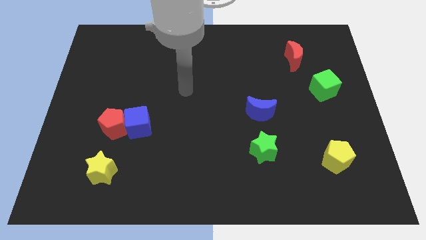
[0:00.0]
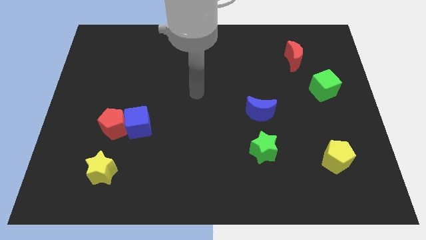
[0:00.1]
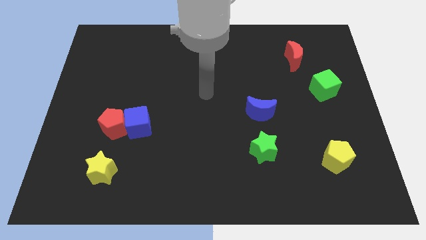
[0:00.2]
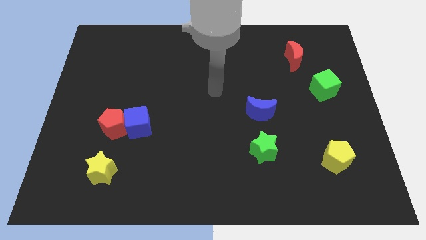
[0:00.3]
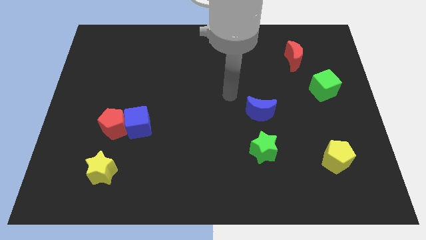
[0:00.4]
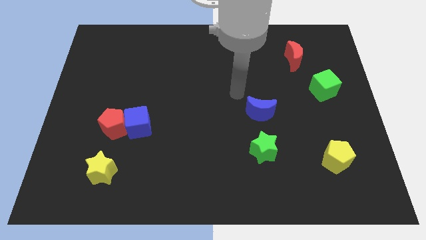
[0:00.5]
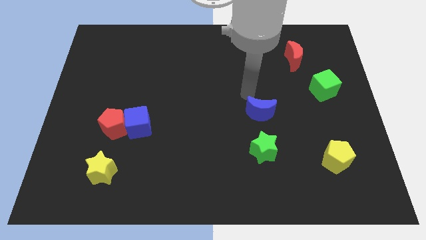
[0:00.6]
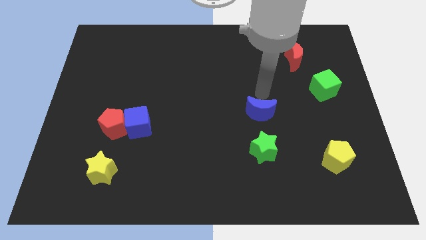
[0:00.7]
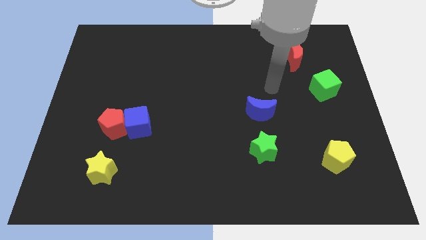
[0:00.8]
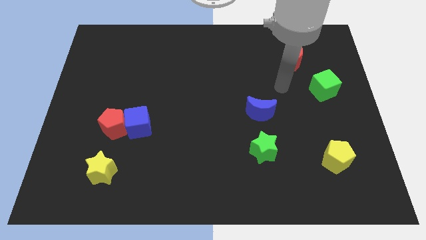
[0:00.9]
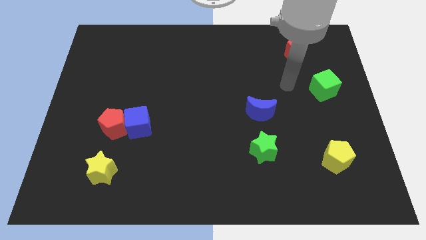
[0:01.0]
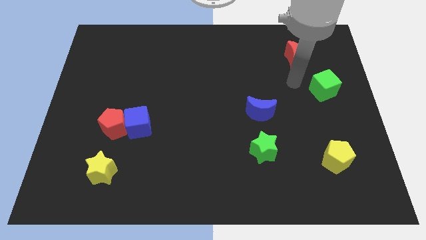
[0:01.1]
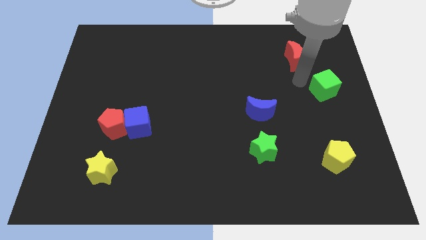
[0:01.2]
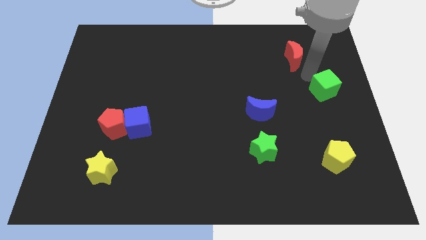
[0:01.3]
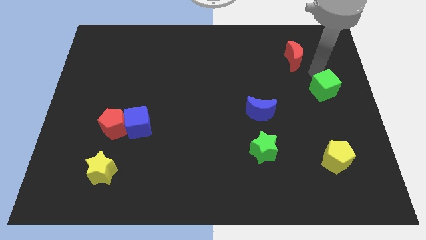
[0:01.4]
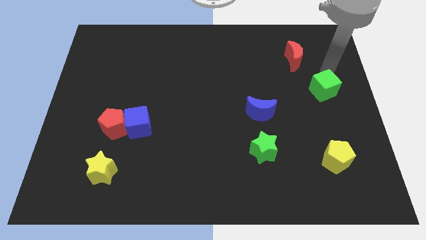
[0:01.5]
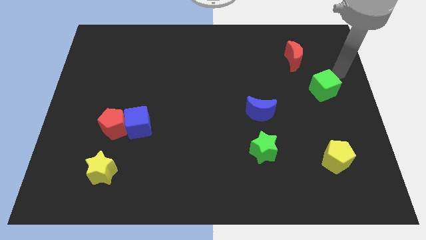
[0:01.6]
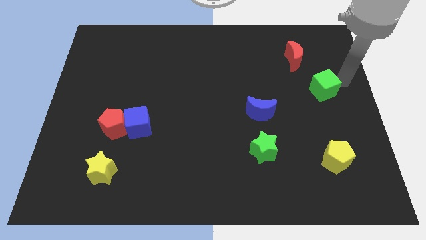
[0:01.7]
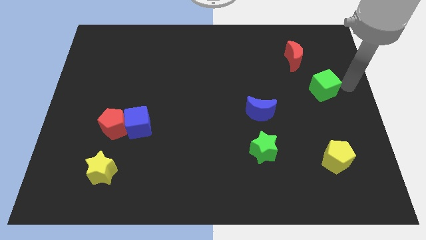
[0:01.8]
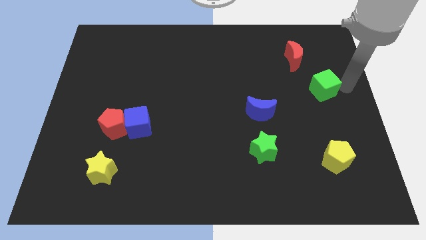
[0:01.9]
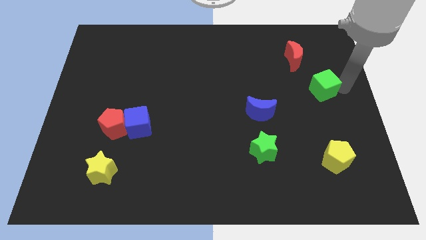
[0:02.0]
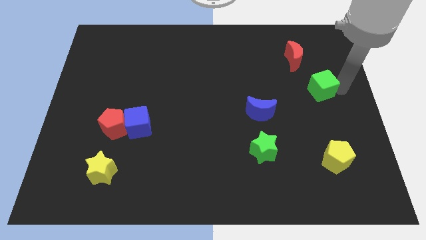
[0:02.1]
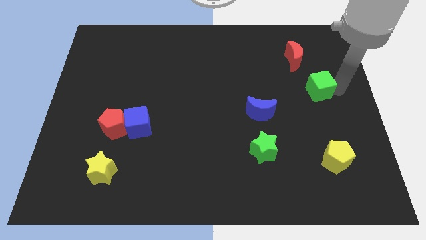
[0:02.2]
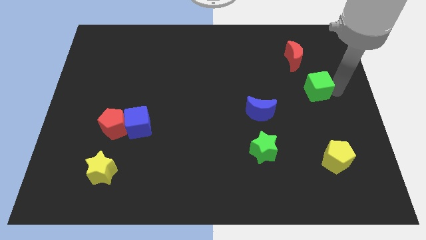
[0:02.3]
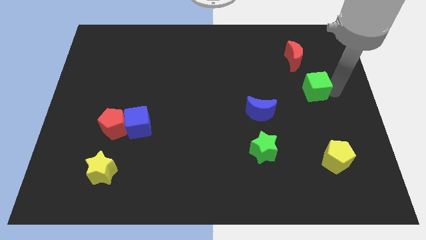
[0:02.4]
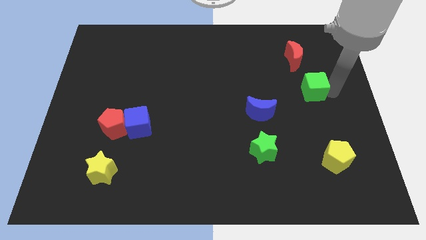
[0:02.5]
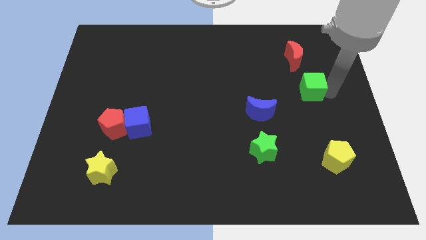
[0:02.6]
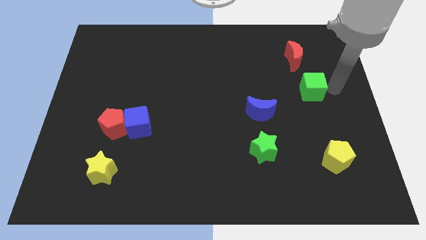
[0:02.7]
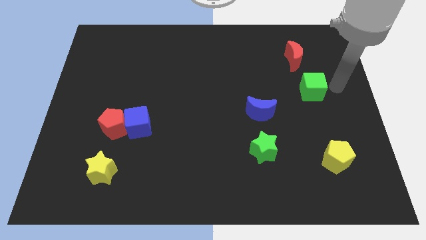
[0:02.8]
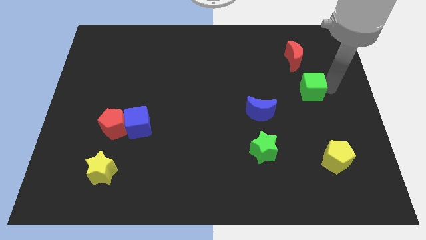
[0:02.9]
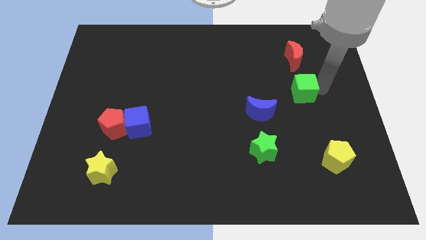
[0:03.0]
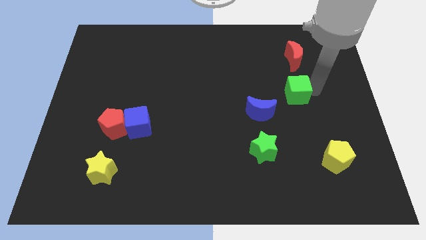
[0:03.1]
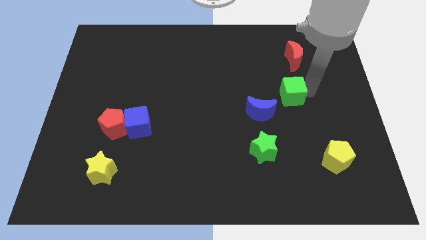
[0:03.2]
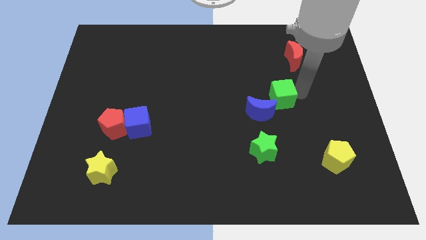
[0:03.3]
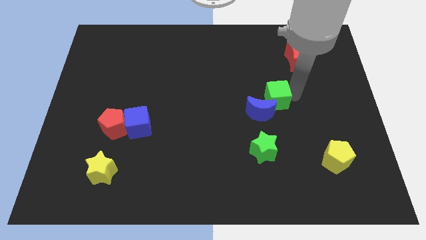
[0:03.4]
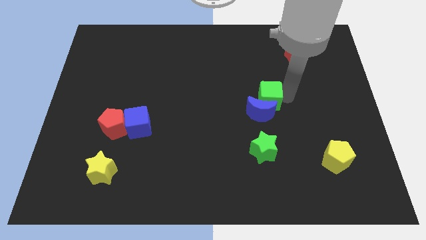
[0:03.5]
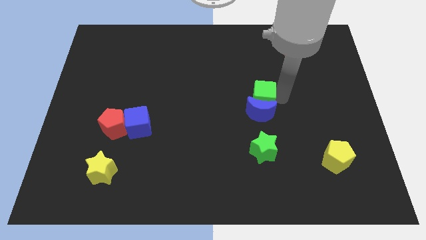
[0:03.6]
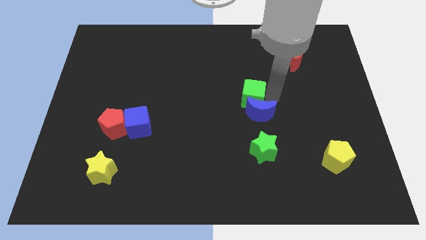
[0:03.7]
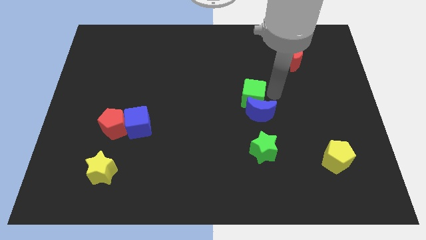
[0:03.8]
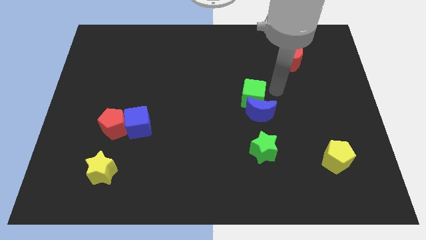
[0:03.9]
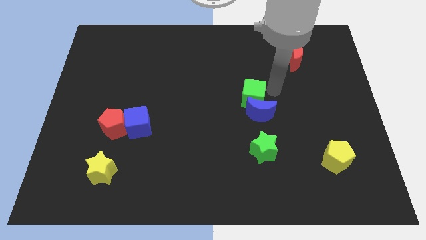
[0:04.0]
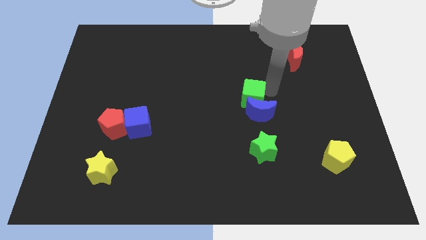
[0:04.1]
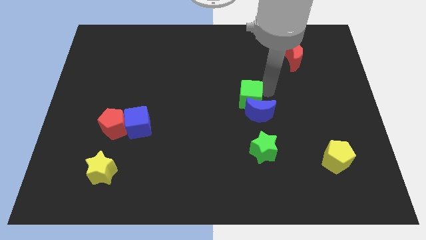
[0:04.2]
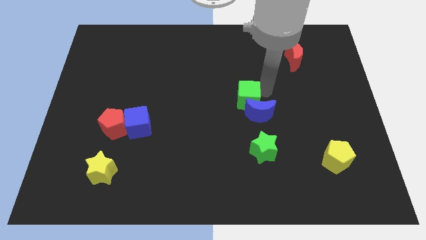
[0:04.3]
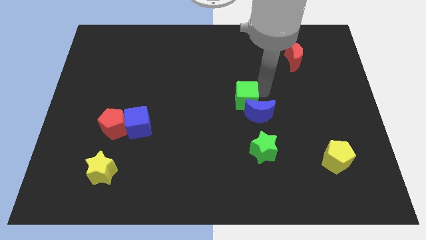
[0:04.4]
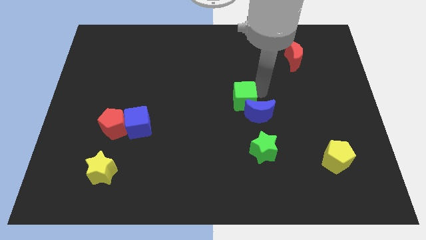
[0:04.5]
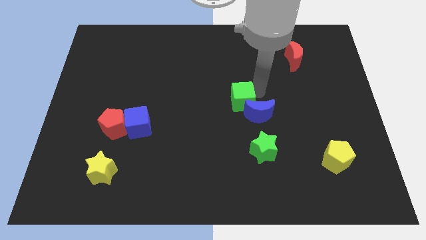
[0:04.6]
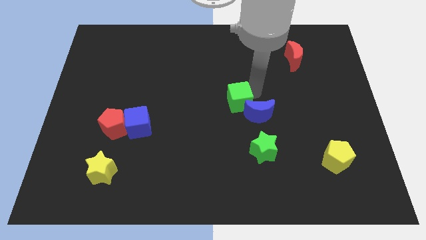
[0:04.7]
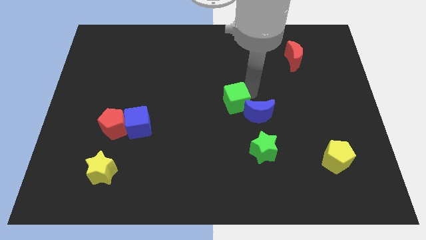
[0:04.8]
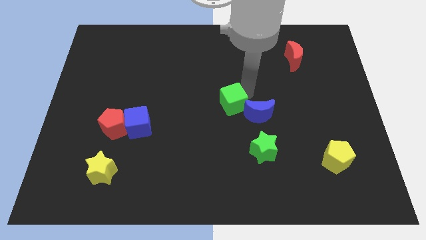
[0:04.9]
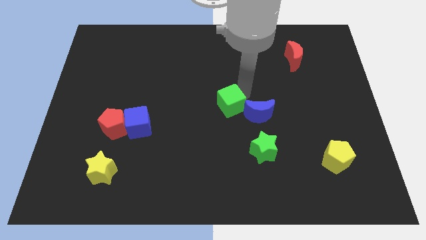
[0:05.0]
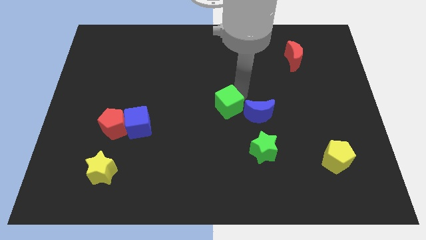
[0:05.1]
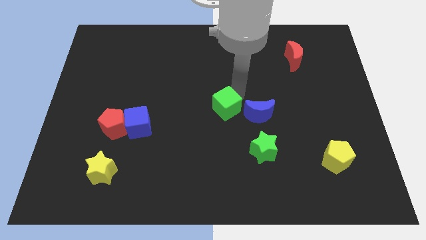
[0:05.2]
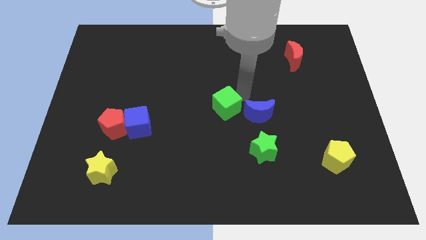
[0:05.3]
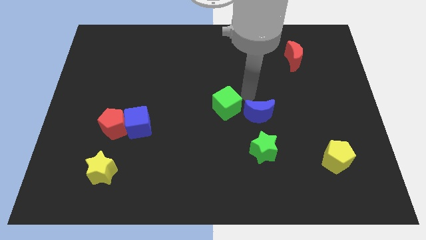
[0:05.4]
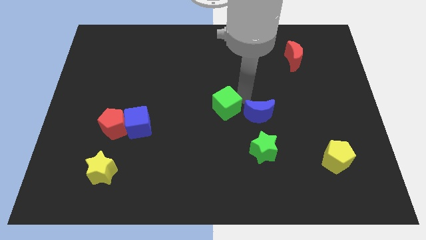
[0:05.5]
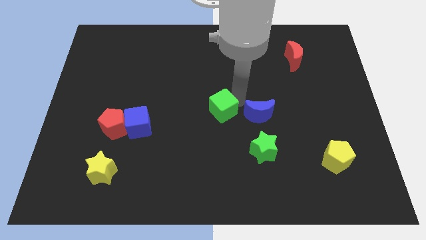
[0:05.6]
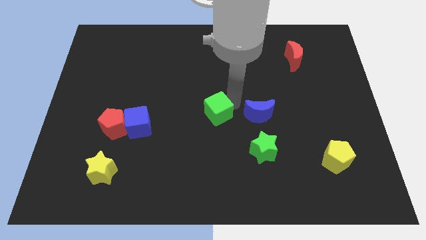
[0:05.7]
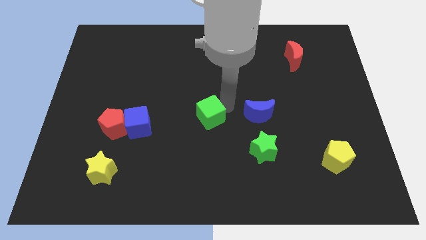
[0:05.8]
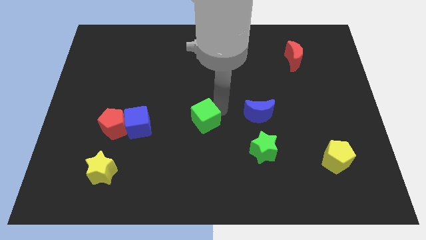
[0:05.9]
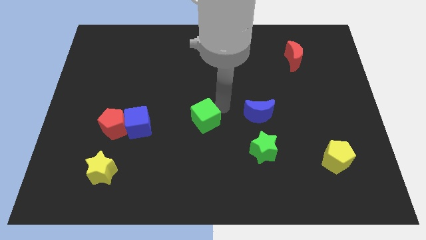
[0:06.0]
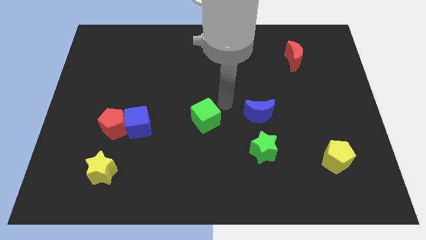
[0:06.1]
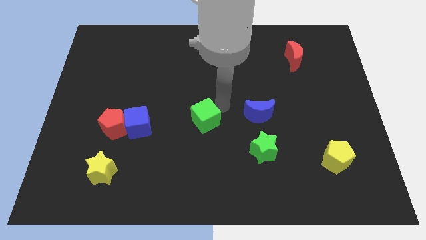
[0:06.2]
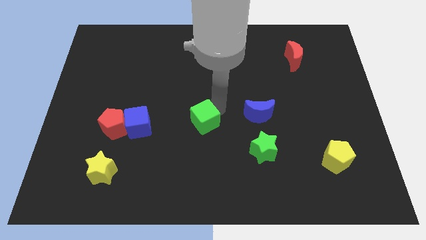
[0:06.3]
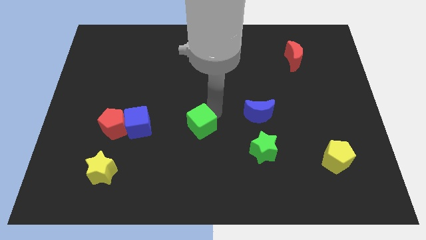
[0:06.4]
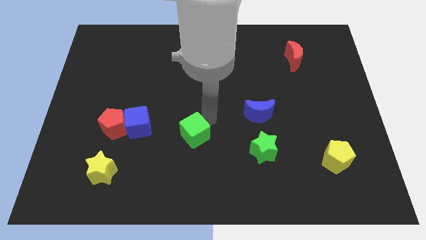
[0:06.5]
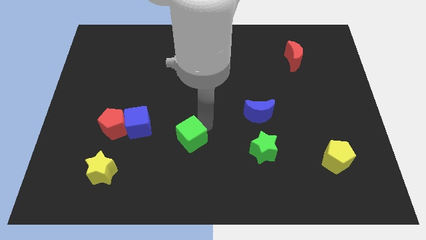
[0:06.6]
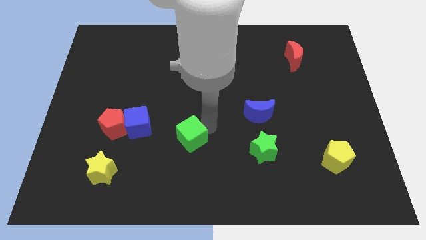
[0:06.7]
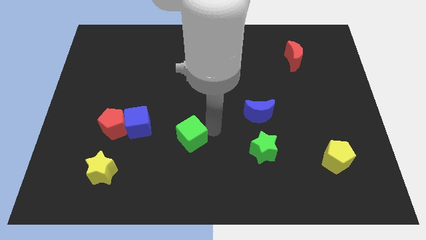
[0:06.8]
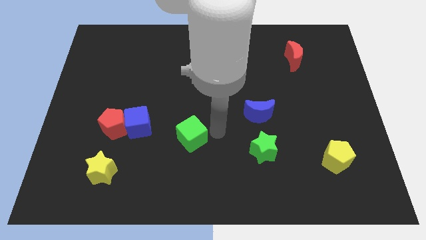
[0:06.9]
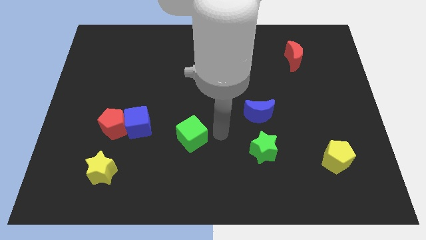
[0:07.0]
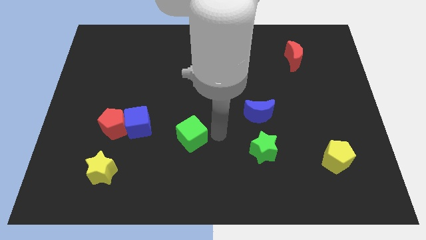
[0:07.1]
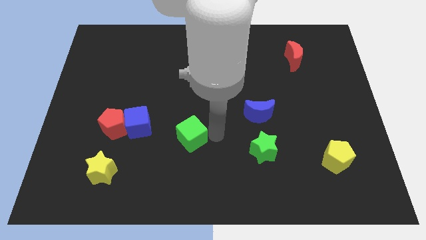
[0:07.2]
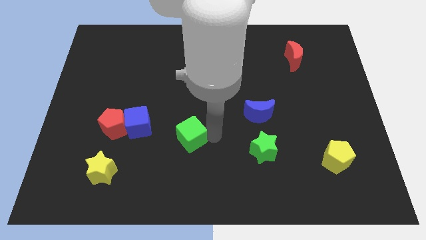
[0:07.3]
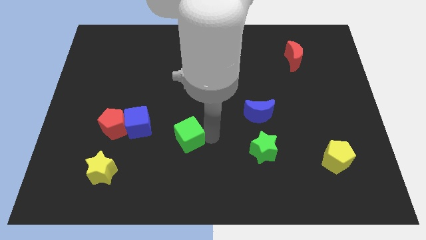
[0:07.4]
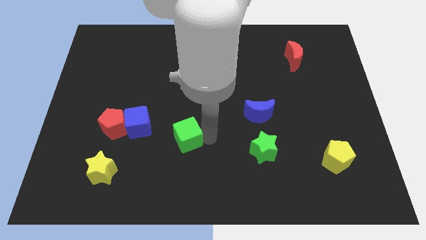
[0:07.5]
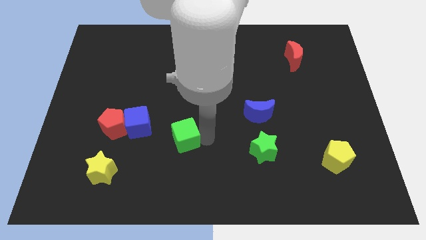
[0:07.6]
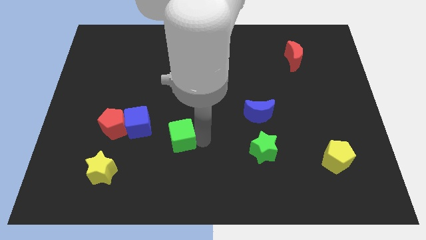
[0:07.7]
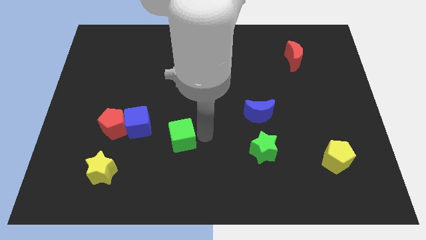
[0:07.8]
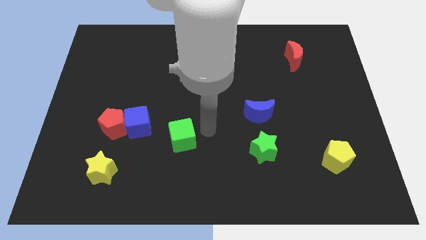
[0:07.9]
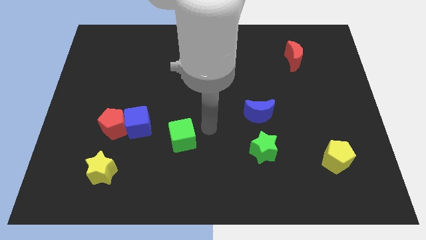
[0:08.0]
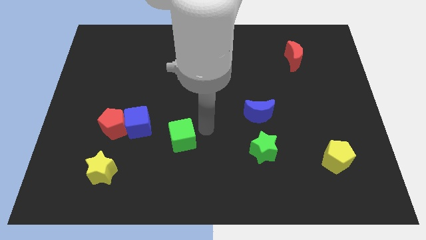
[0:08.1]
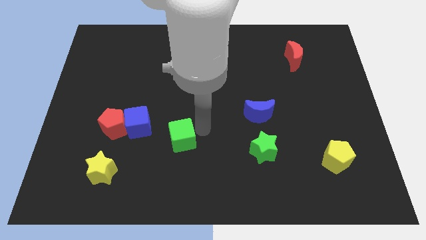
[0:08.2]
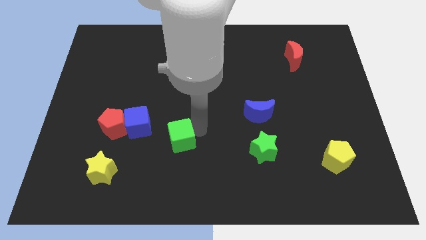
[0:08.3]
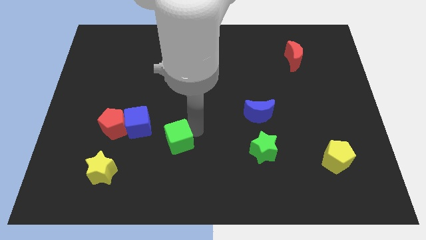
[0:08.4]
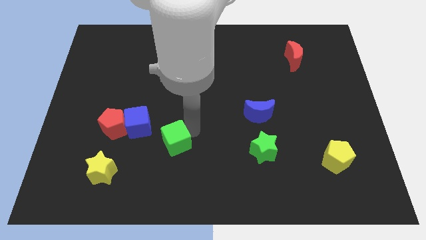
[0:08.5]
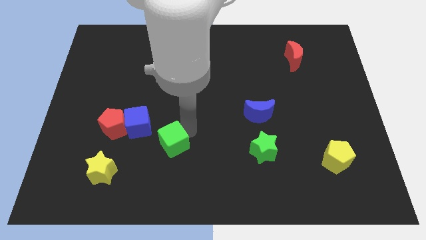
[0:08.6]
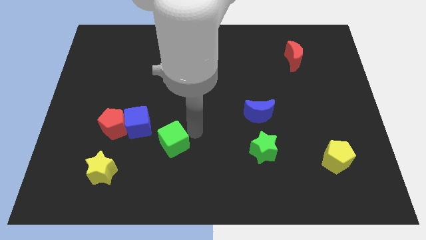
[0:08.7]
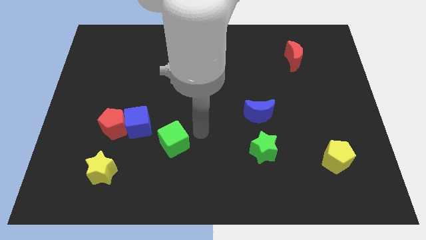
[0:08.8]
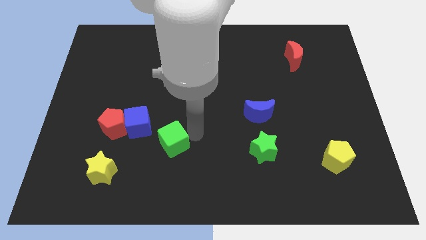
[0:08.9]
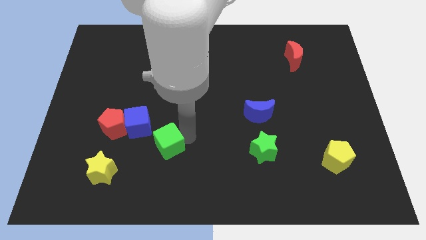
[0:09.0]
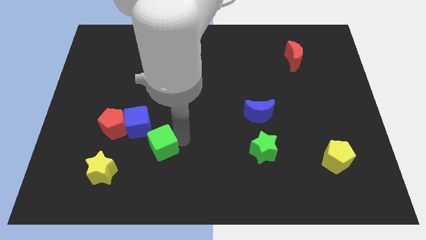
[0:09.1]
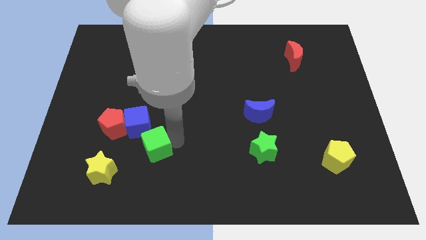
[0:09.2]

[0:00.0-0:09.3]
put the green cube to the bottom of the blue cube
